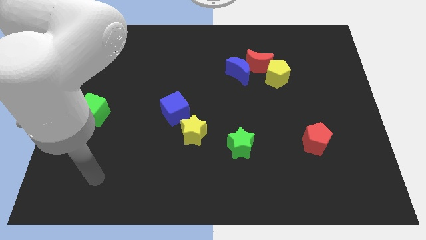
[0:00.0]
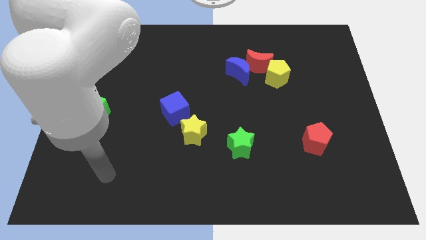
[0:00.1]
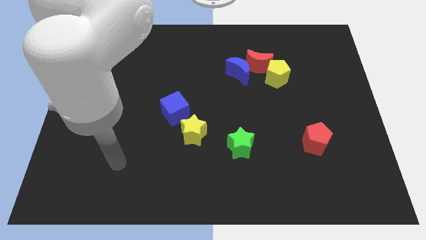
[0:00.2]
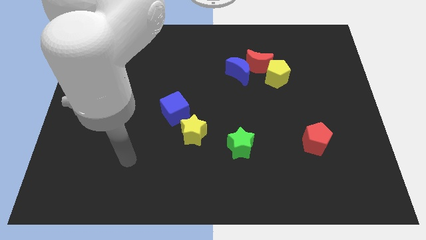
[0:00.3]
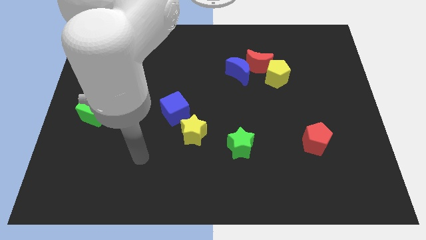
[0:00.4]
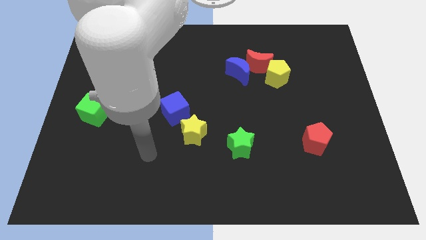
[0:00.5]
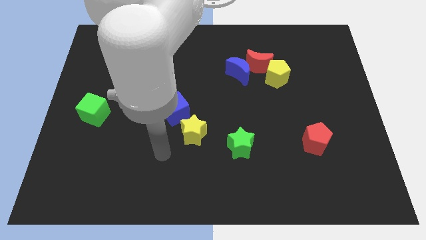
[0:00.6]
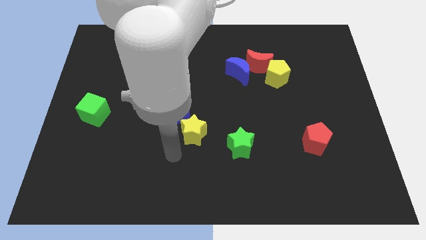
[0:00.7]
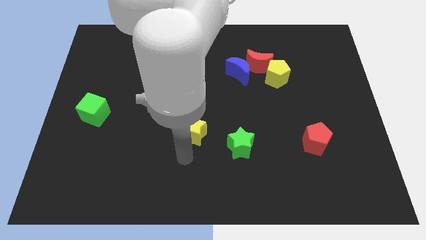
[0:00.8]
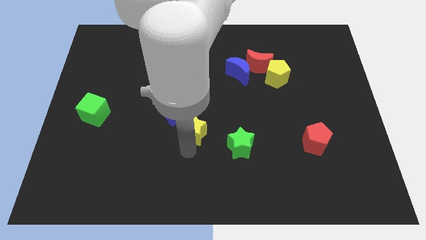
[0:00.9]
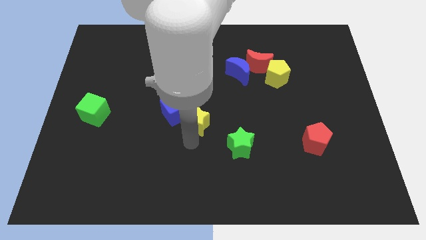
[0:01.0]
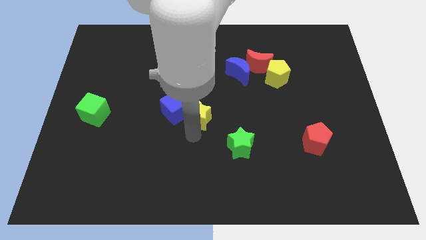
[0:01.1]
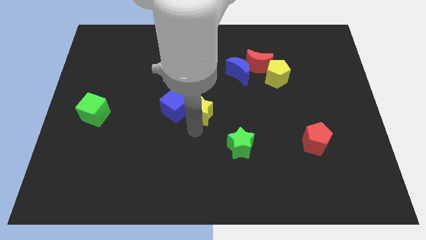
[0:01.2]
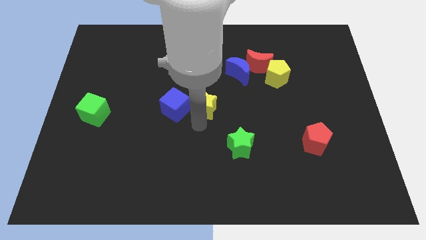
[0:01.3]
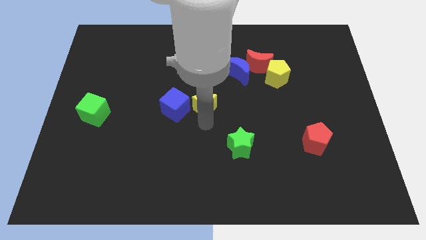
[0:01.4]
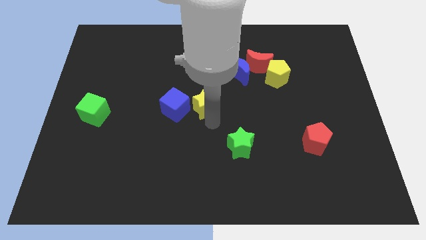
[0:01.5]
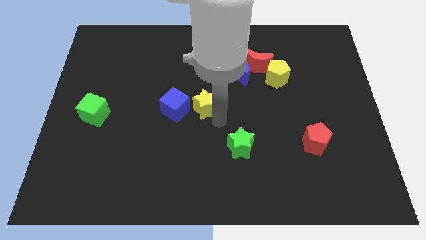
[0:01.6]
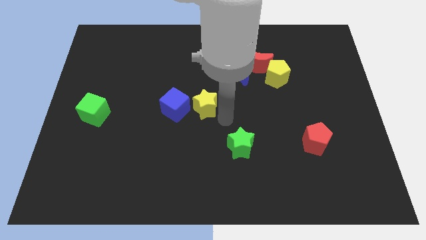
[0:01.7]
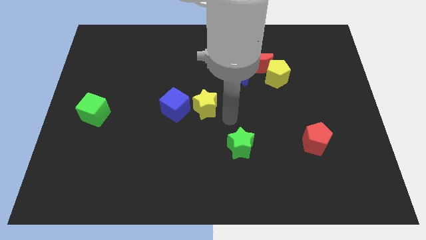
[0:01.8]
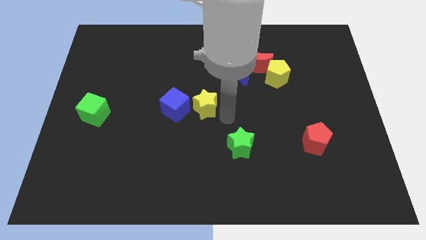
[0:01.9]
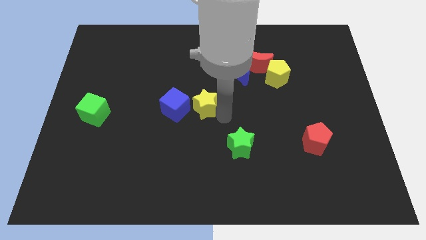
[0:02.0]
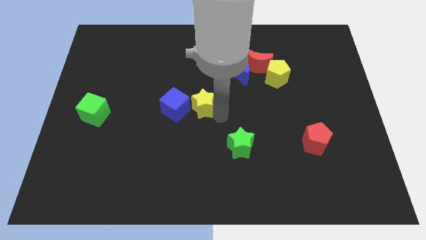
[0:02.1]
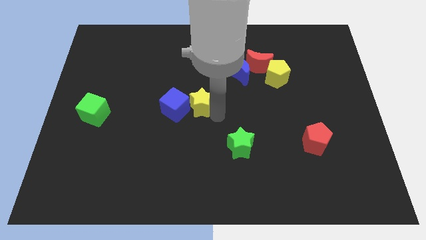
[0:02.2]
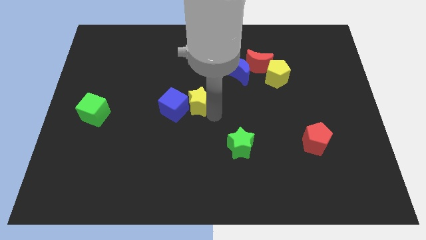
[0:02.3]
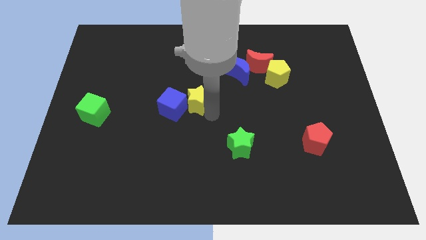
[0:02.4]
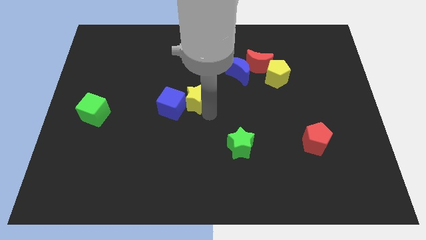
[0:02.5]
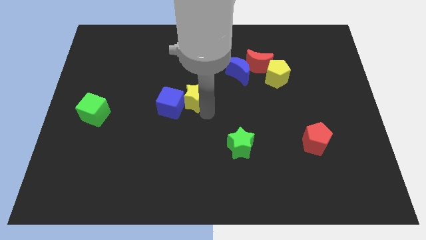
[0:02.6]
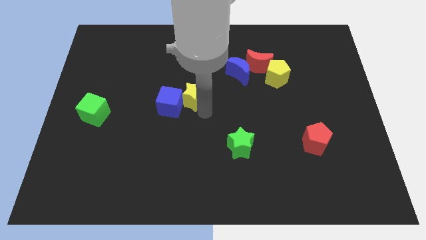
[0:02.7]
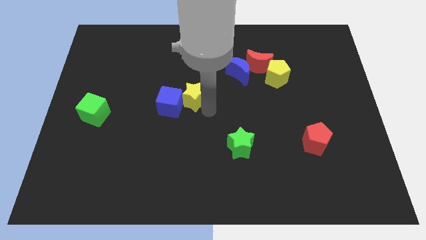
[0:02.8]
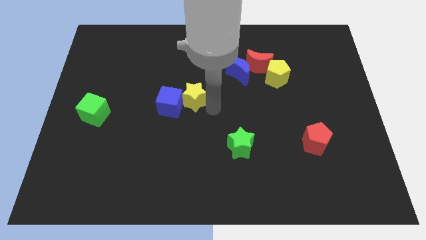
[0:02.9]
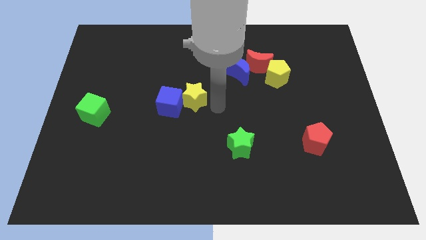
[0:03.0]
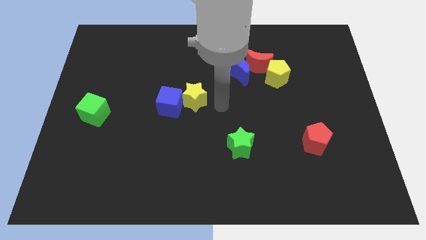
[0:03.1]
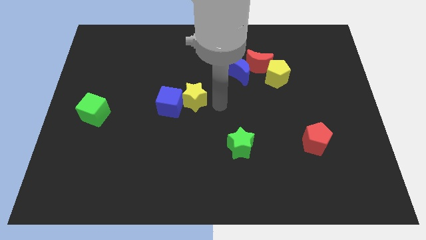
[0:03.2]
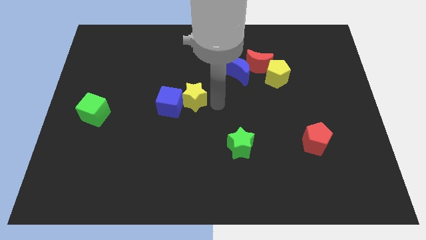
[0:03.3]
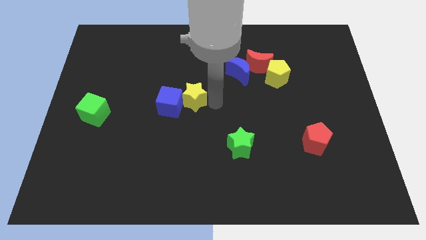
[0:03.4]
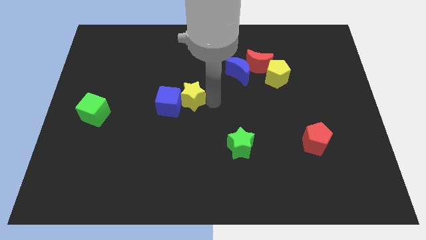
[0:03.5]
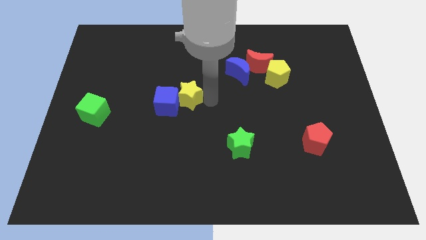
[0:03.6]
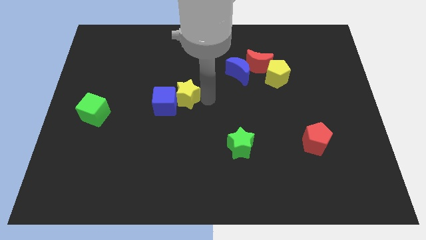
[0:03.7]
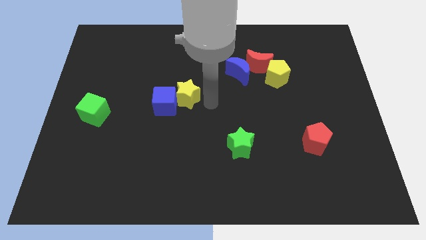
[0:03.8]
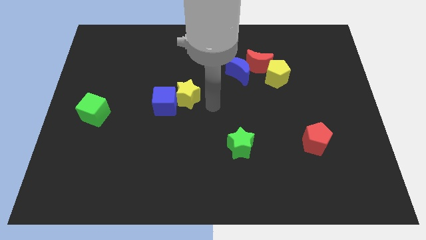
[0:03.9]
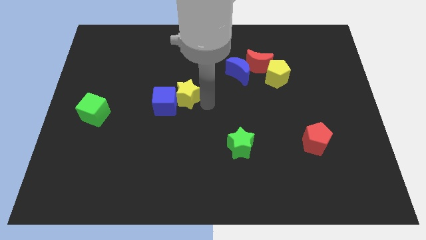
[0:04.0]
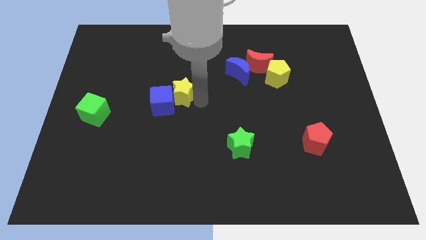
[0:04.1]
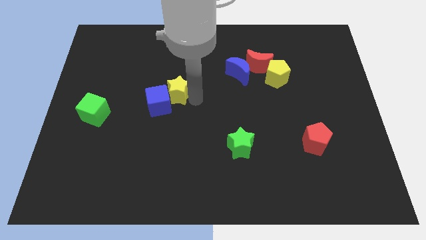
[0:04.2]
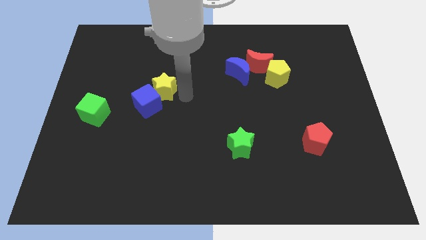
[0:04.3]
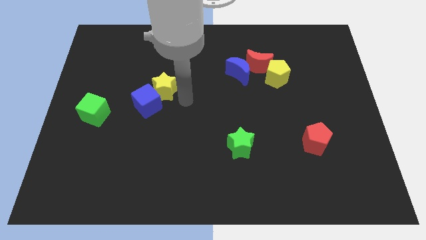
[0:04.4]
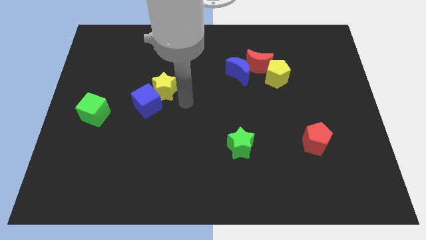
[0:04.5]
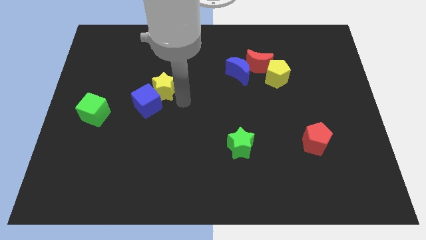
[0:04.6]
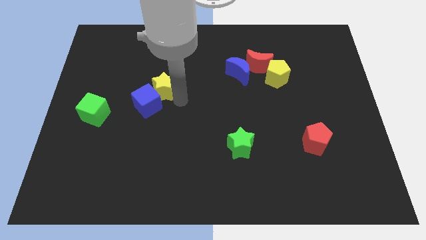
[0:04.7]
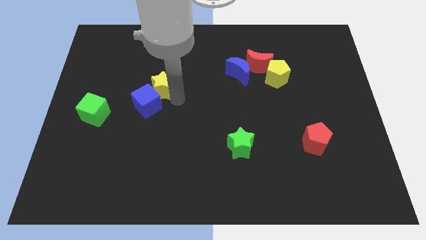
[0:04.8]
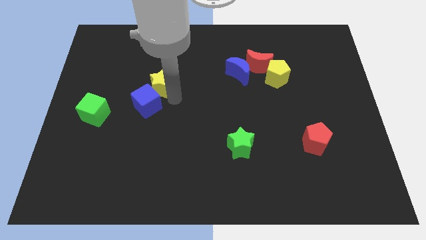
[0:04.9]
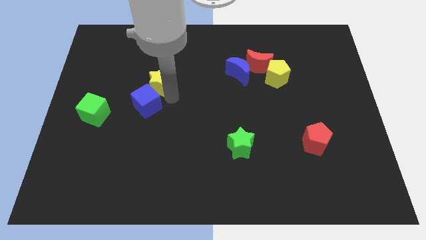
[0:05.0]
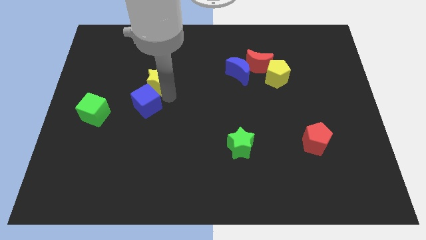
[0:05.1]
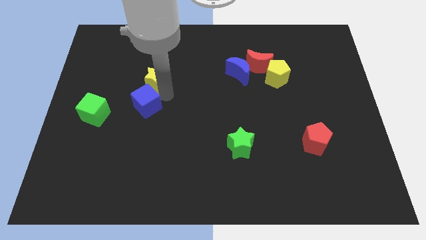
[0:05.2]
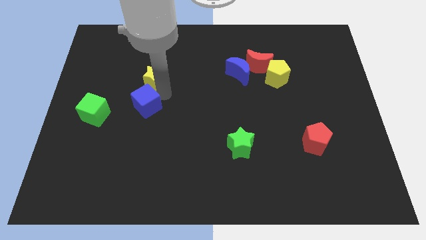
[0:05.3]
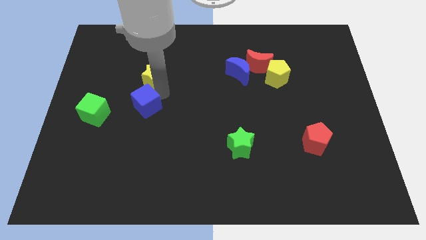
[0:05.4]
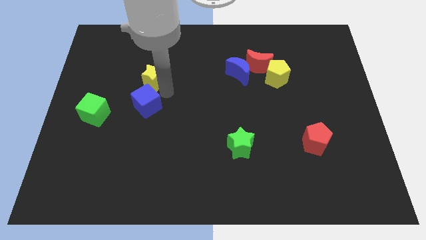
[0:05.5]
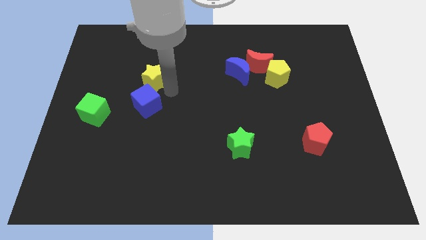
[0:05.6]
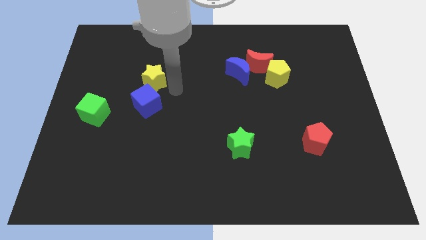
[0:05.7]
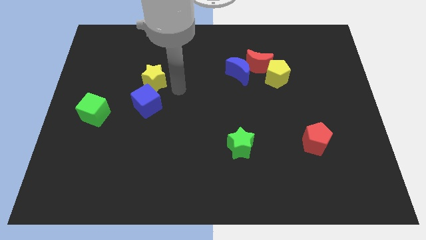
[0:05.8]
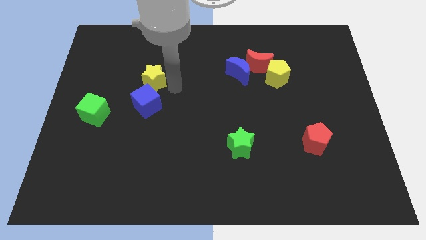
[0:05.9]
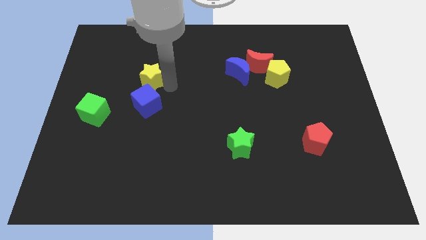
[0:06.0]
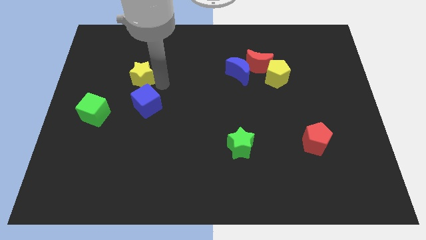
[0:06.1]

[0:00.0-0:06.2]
push the yellow star up and to the left

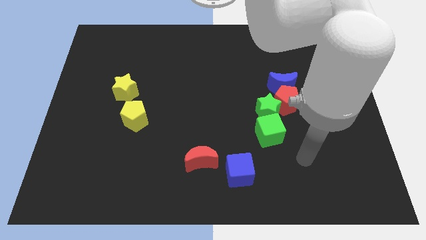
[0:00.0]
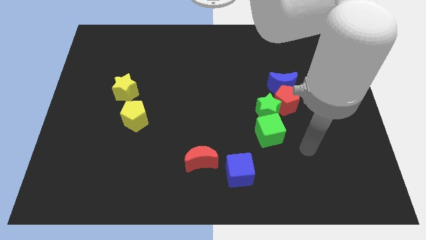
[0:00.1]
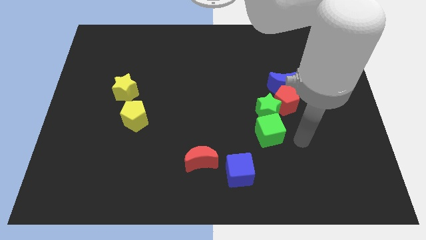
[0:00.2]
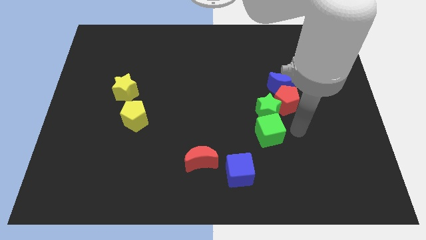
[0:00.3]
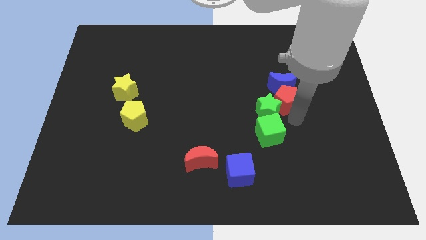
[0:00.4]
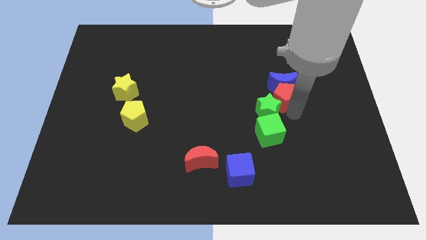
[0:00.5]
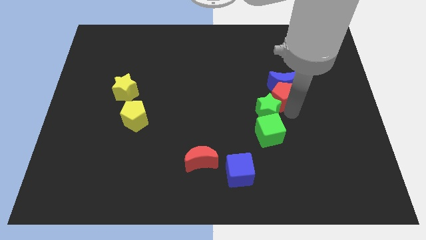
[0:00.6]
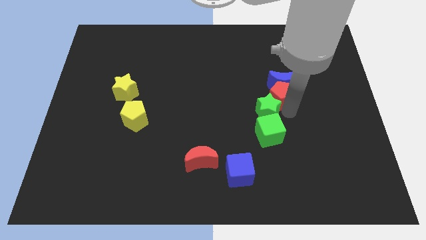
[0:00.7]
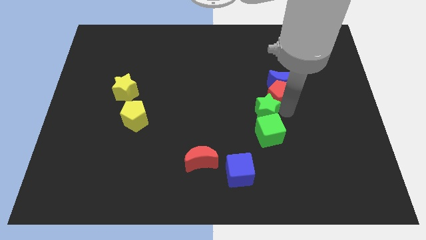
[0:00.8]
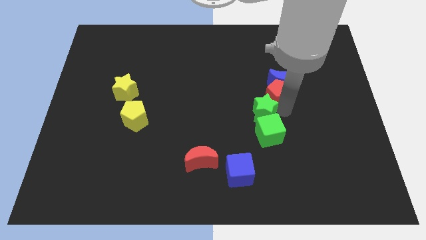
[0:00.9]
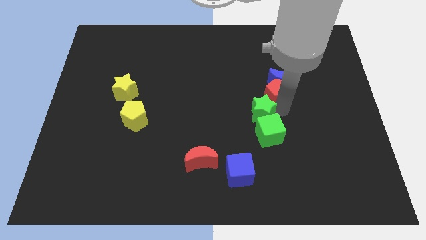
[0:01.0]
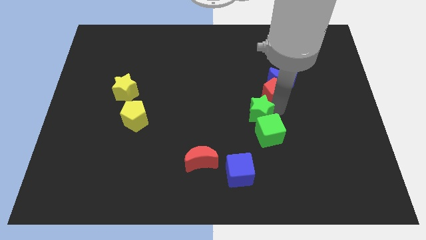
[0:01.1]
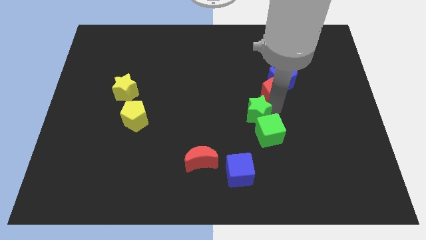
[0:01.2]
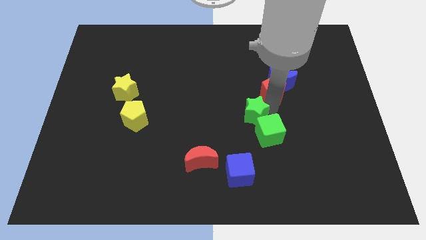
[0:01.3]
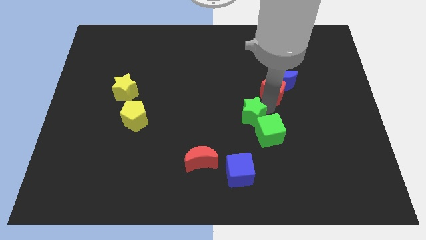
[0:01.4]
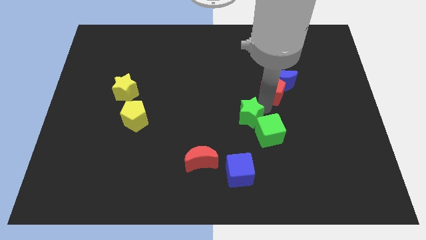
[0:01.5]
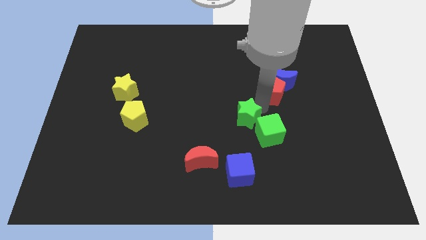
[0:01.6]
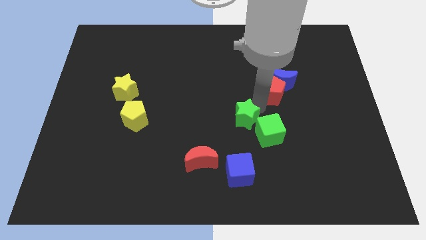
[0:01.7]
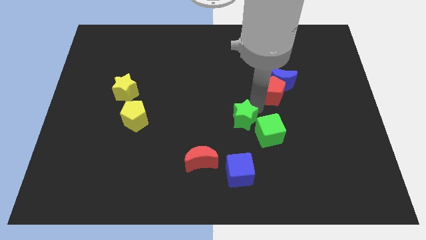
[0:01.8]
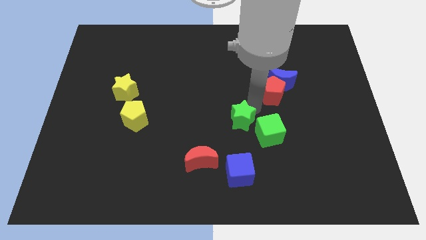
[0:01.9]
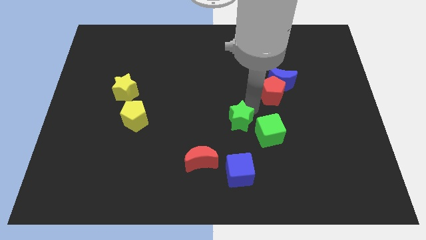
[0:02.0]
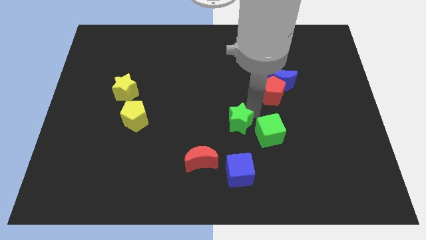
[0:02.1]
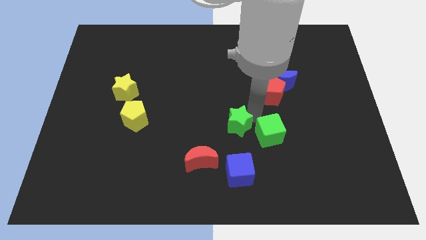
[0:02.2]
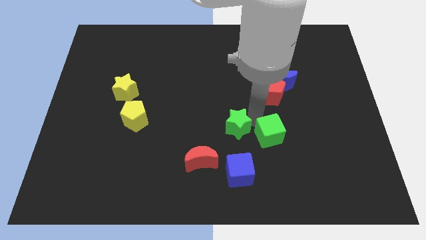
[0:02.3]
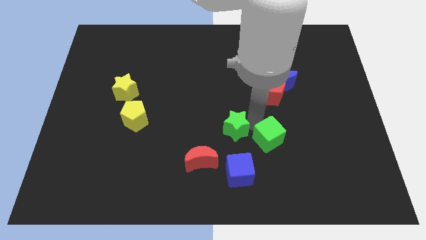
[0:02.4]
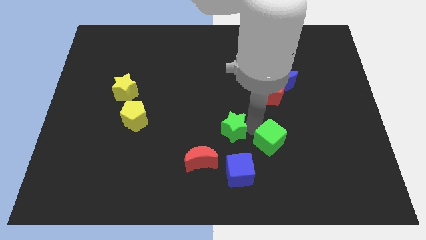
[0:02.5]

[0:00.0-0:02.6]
push the green star a little to the left
